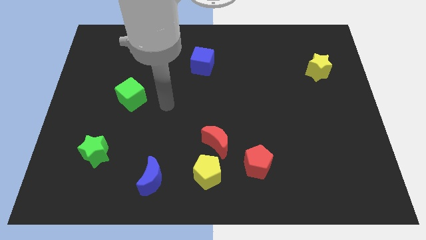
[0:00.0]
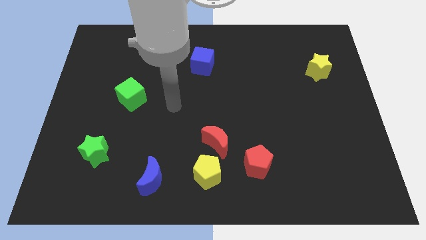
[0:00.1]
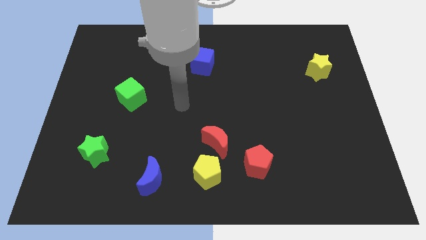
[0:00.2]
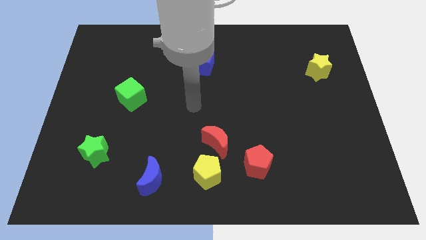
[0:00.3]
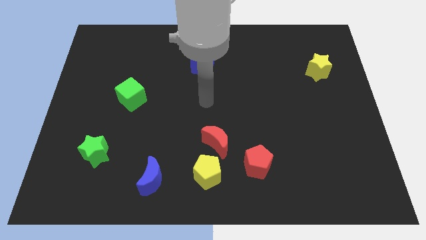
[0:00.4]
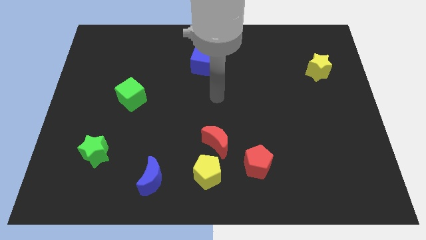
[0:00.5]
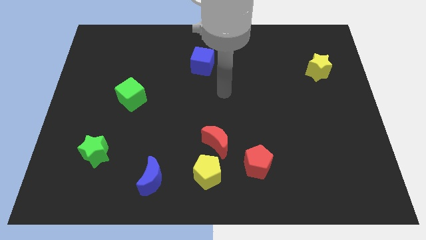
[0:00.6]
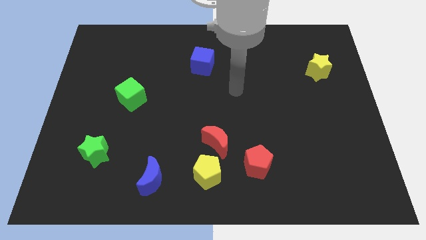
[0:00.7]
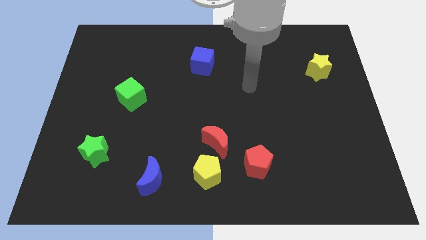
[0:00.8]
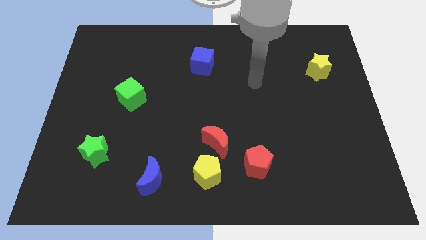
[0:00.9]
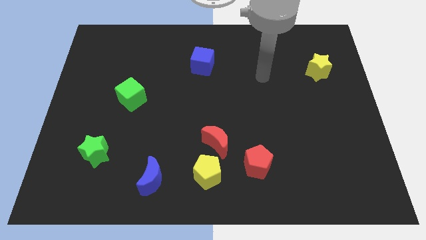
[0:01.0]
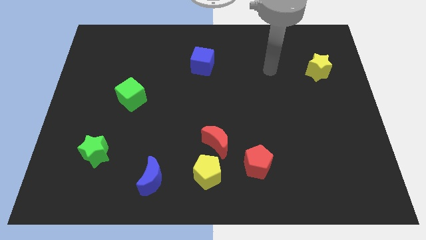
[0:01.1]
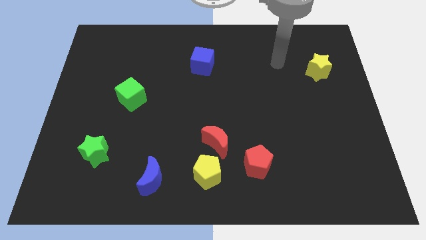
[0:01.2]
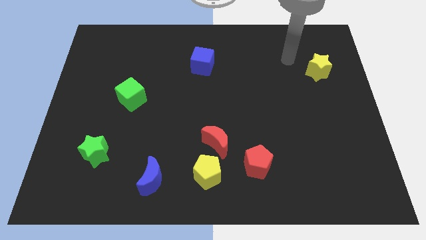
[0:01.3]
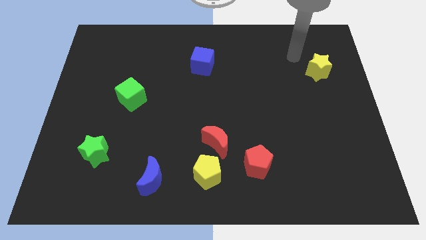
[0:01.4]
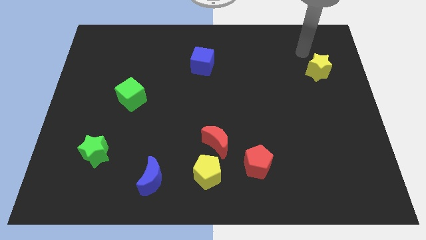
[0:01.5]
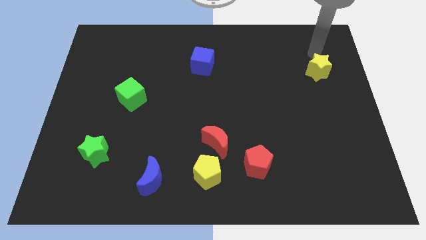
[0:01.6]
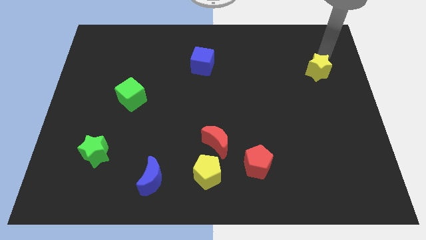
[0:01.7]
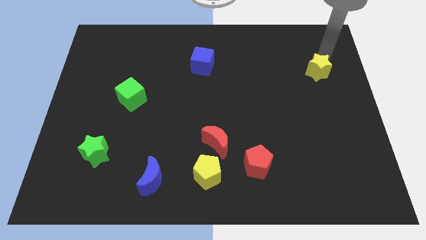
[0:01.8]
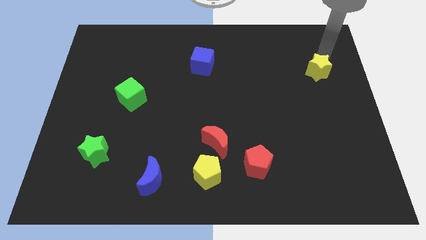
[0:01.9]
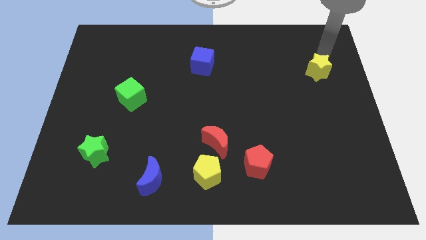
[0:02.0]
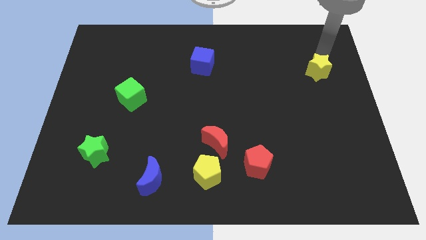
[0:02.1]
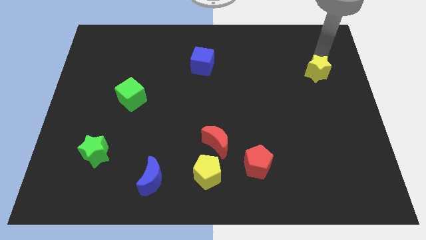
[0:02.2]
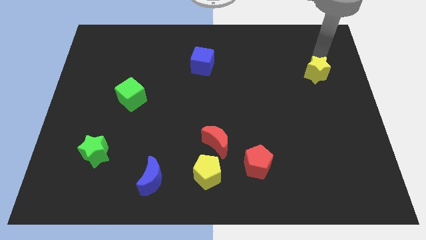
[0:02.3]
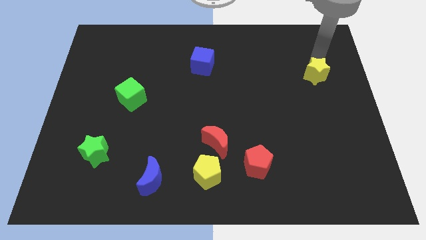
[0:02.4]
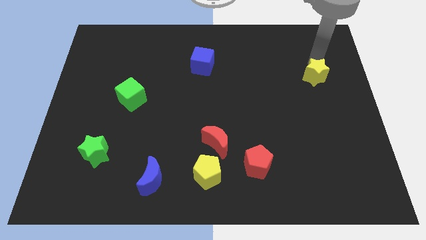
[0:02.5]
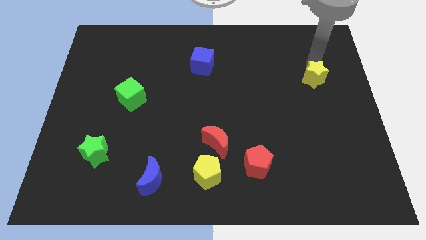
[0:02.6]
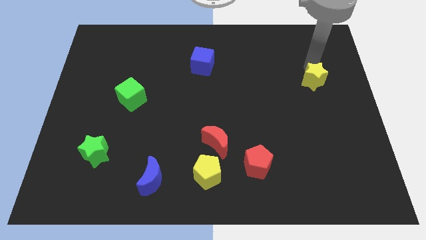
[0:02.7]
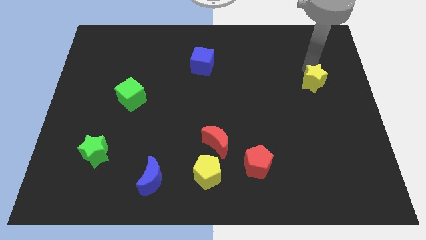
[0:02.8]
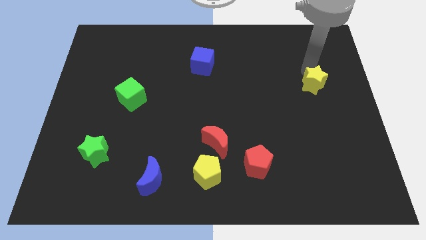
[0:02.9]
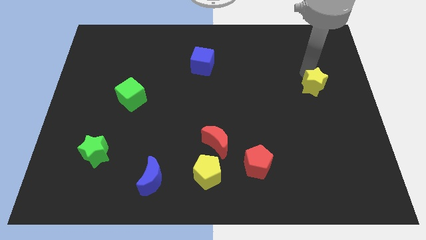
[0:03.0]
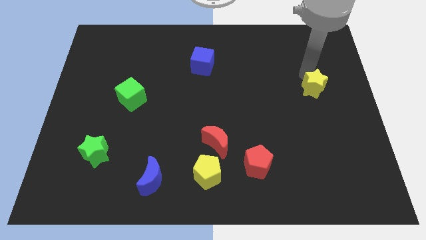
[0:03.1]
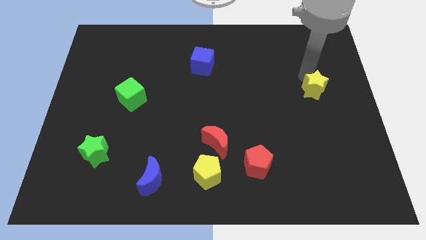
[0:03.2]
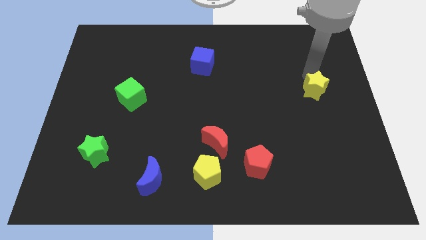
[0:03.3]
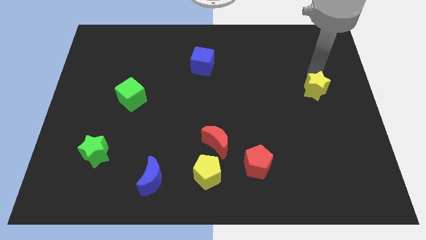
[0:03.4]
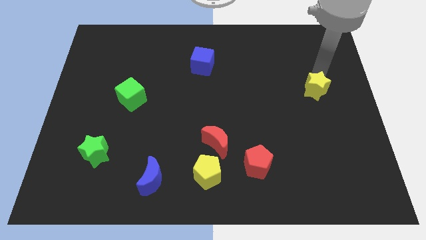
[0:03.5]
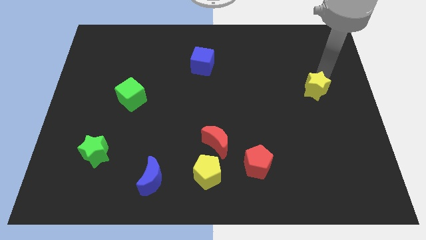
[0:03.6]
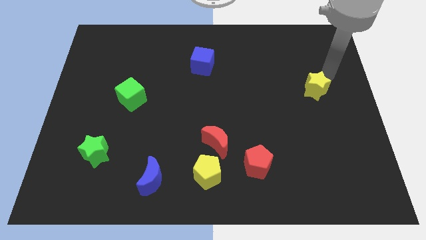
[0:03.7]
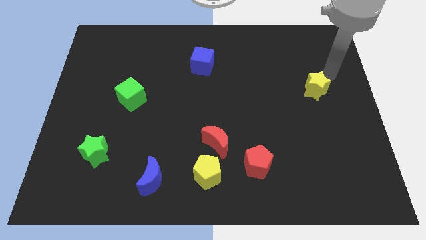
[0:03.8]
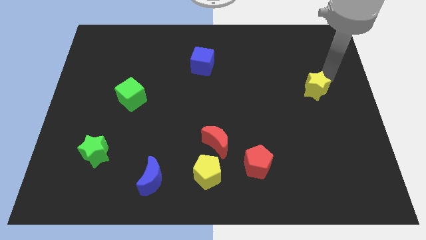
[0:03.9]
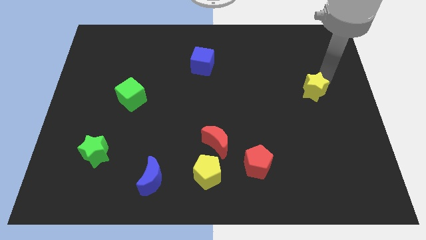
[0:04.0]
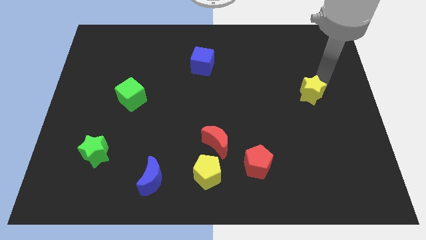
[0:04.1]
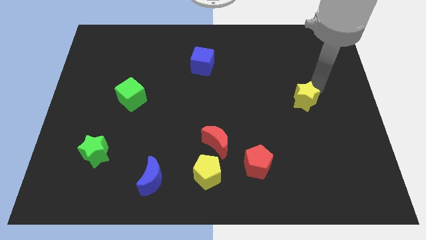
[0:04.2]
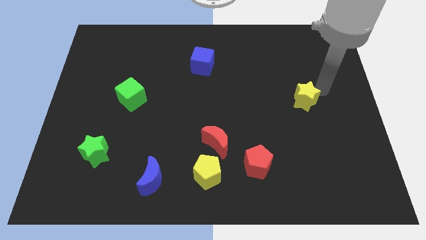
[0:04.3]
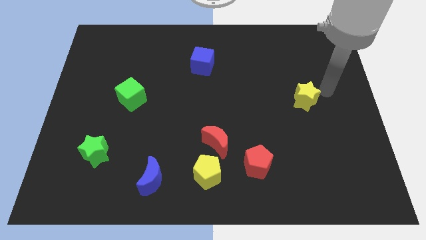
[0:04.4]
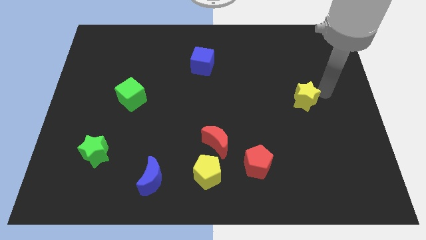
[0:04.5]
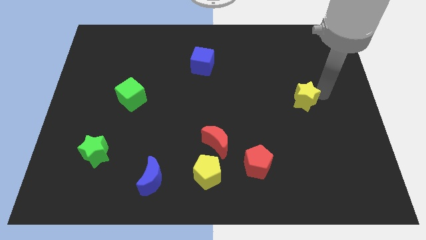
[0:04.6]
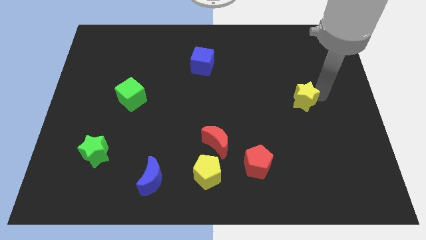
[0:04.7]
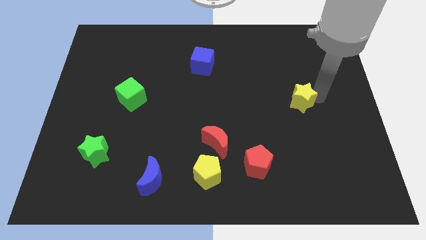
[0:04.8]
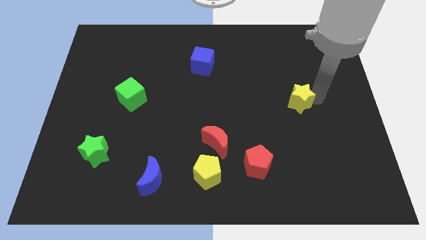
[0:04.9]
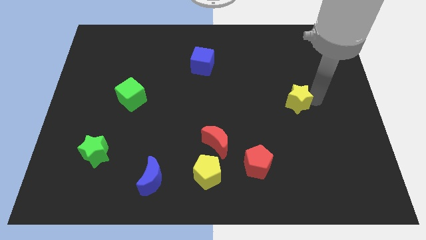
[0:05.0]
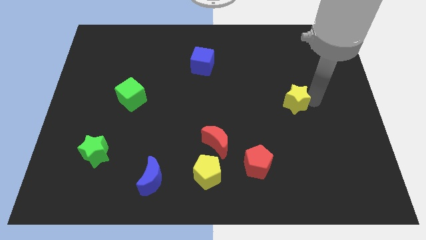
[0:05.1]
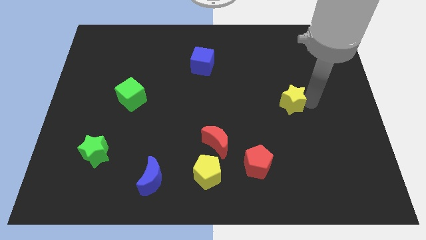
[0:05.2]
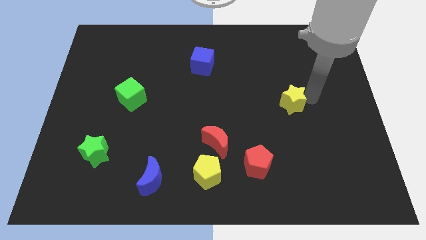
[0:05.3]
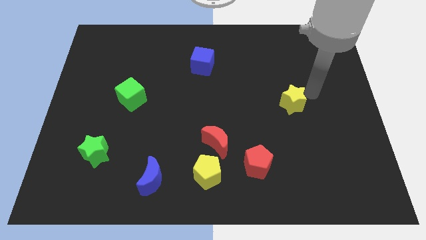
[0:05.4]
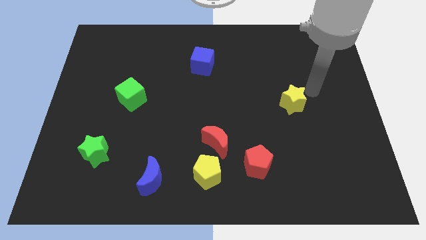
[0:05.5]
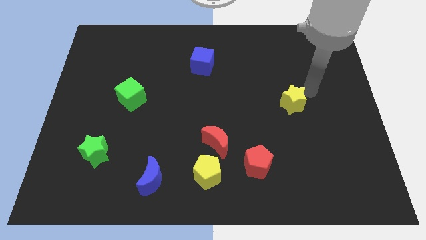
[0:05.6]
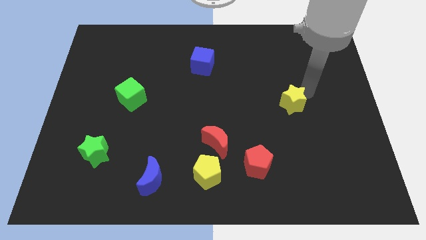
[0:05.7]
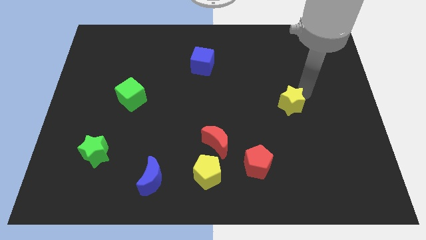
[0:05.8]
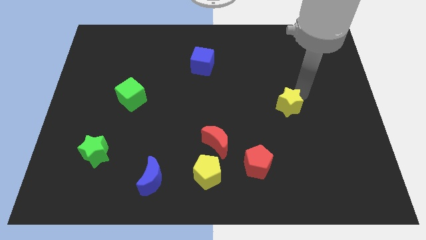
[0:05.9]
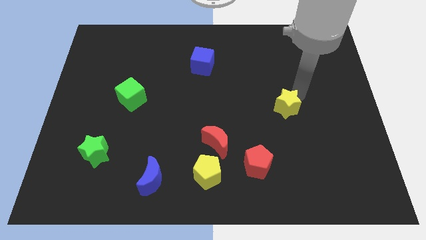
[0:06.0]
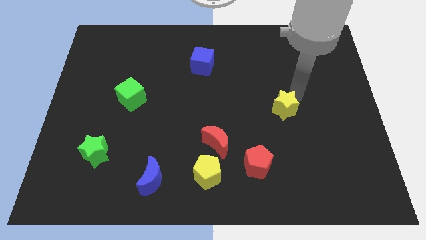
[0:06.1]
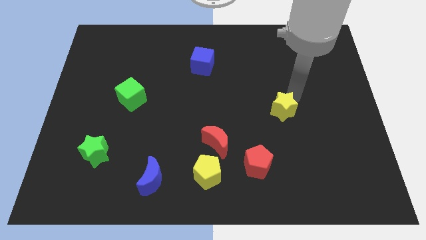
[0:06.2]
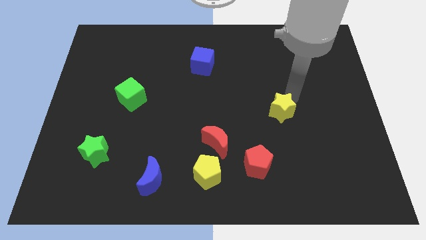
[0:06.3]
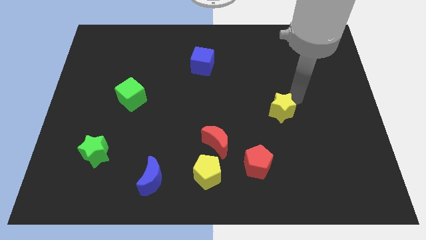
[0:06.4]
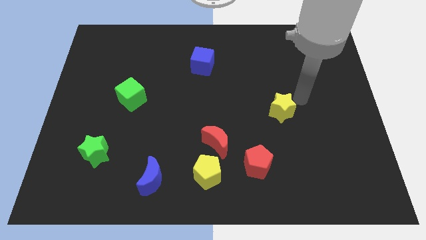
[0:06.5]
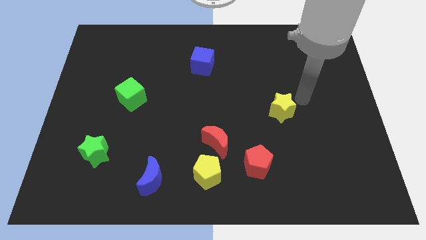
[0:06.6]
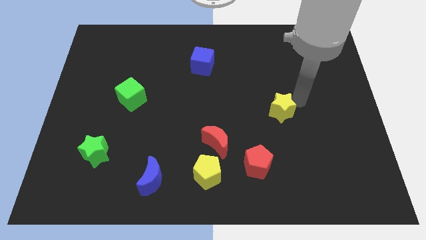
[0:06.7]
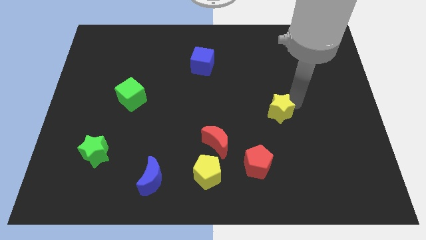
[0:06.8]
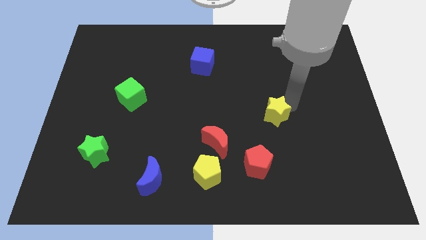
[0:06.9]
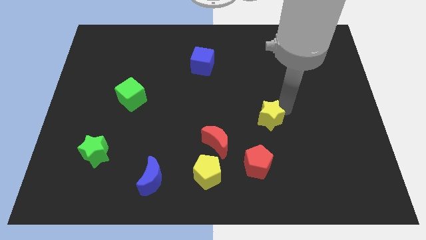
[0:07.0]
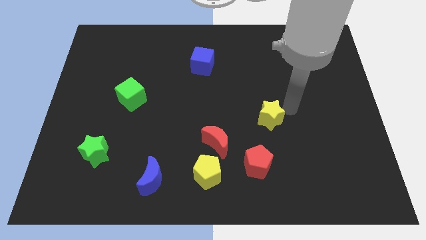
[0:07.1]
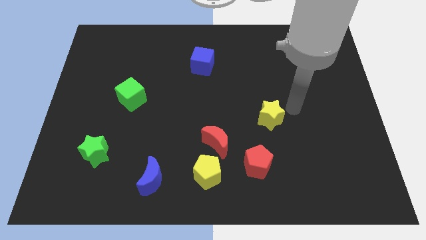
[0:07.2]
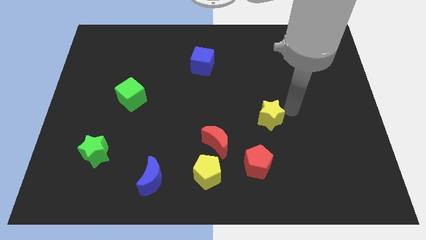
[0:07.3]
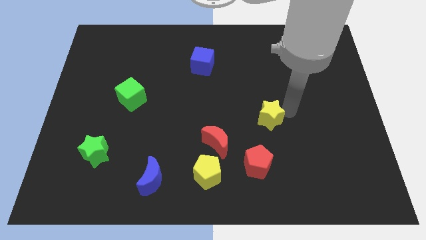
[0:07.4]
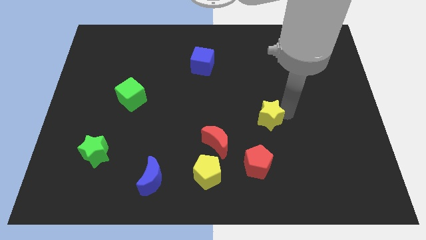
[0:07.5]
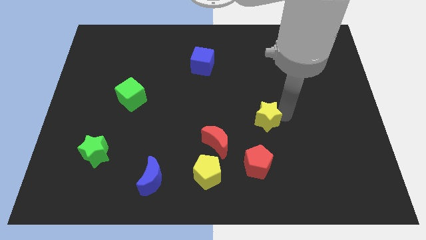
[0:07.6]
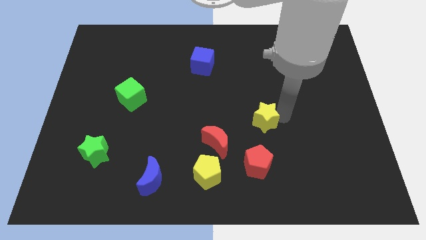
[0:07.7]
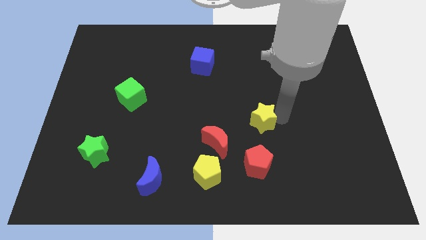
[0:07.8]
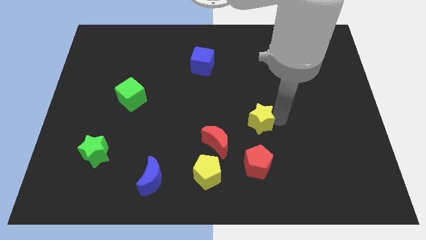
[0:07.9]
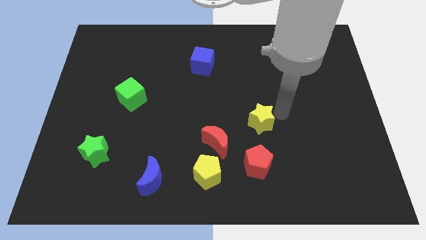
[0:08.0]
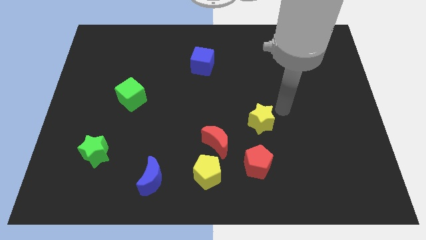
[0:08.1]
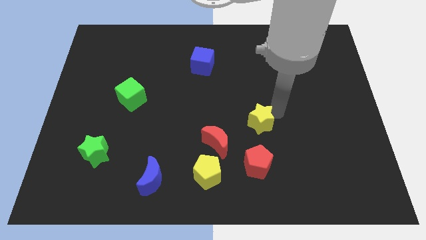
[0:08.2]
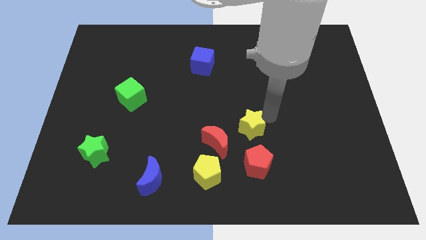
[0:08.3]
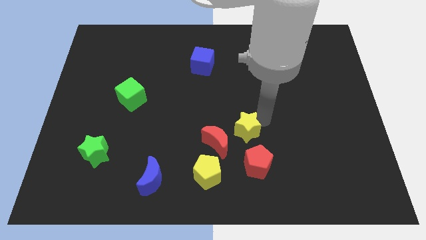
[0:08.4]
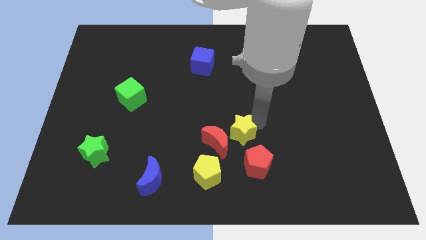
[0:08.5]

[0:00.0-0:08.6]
put the yellow star to the red moon
